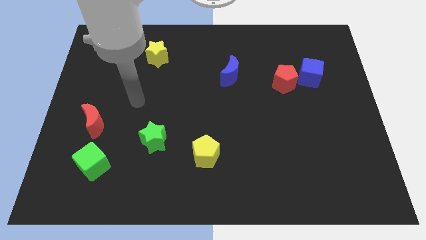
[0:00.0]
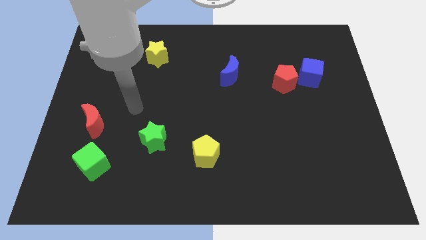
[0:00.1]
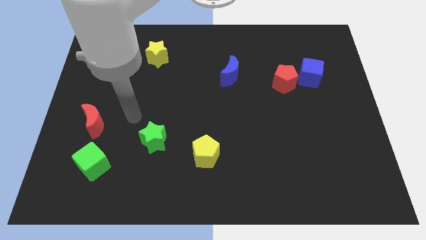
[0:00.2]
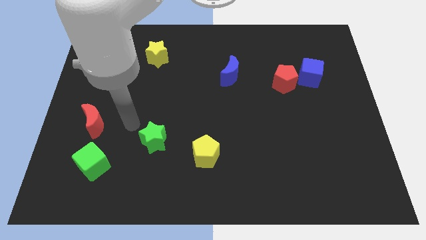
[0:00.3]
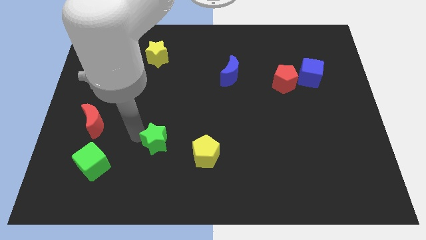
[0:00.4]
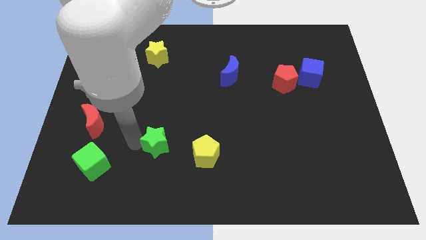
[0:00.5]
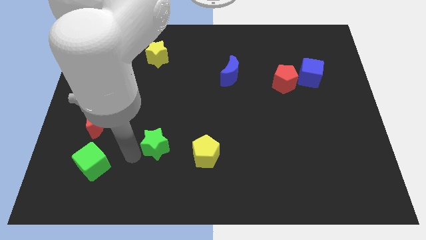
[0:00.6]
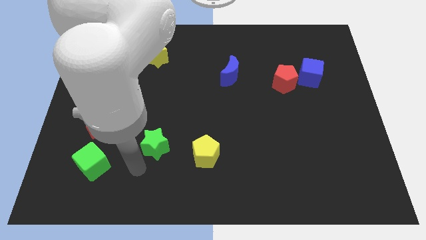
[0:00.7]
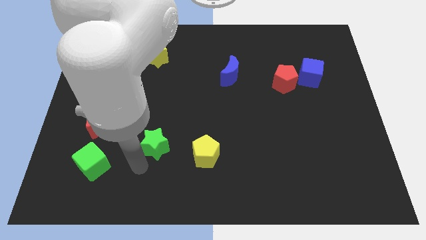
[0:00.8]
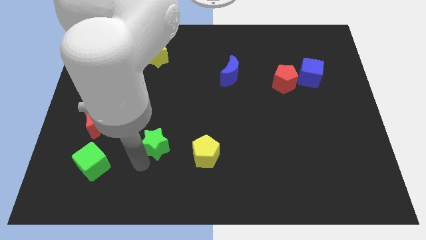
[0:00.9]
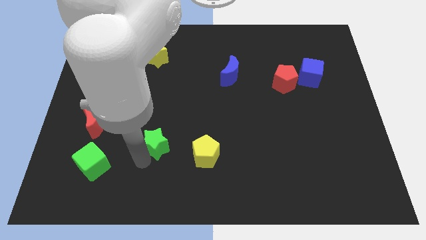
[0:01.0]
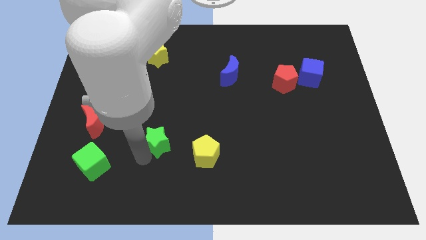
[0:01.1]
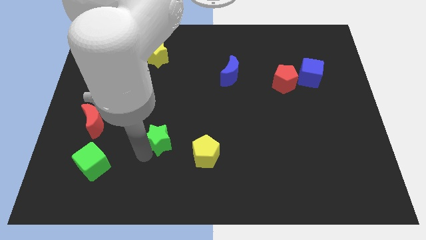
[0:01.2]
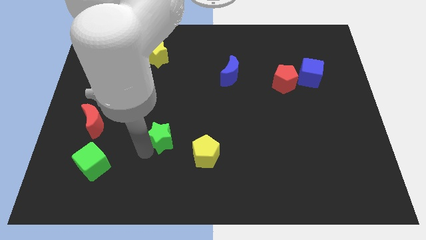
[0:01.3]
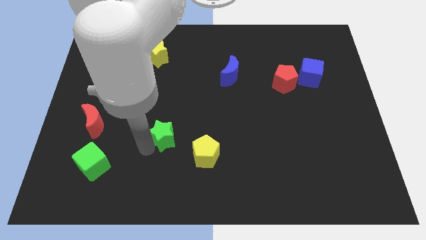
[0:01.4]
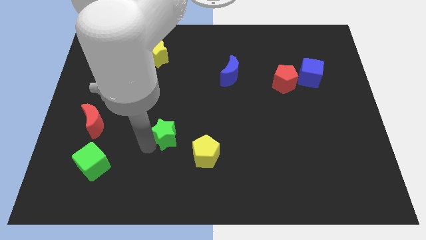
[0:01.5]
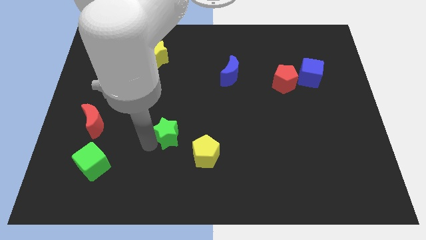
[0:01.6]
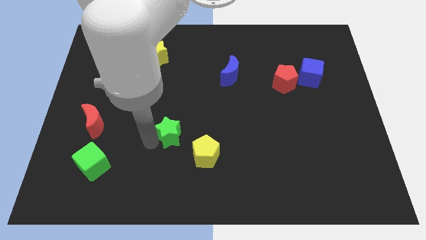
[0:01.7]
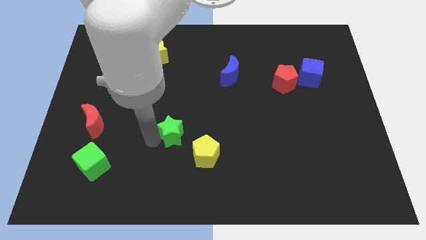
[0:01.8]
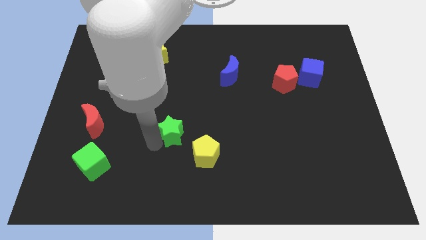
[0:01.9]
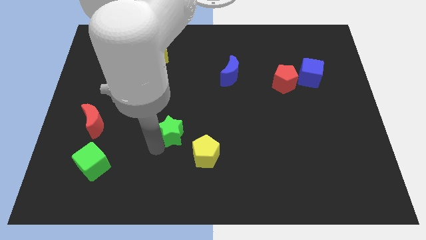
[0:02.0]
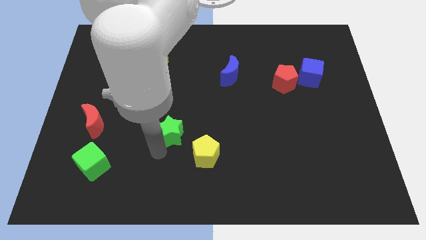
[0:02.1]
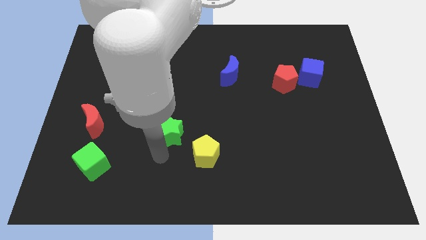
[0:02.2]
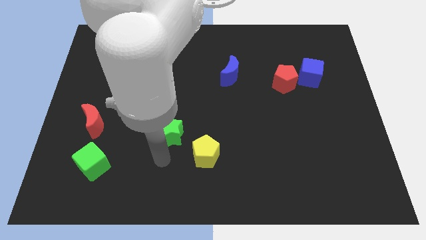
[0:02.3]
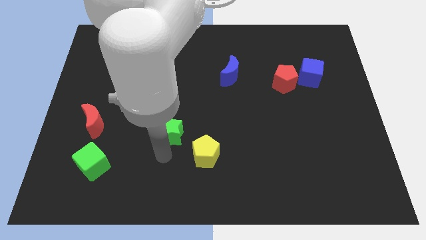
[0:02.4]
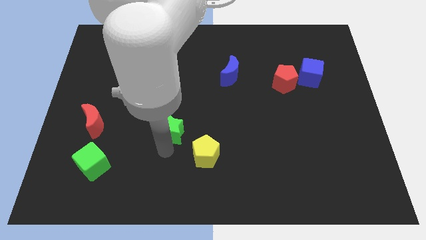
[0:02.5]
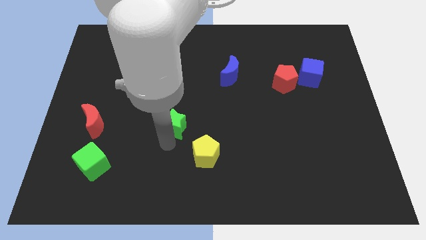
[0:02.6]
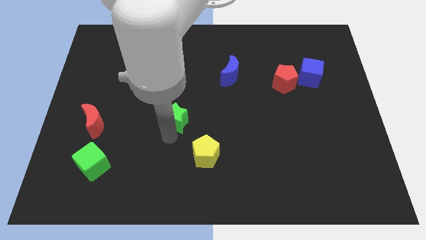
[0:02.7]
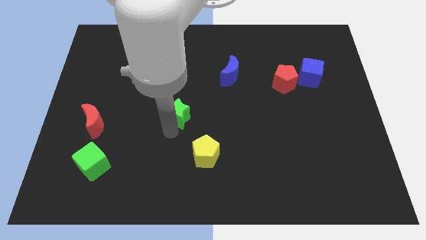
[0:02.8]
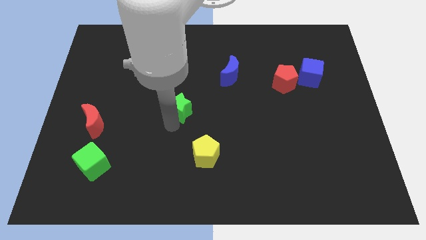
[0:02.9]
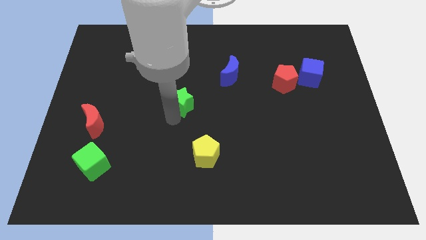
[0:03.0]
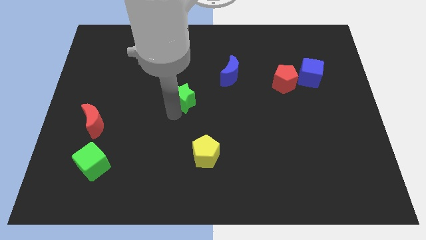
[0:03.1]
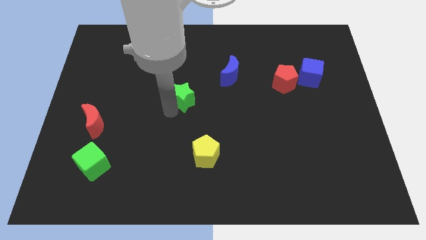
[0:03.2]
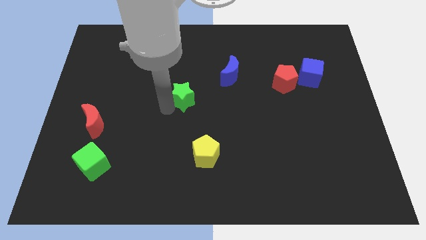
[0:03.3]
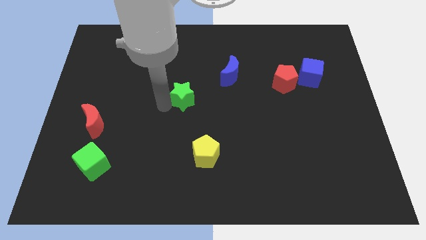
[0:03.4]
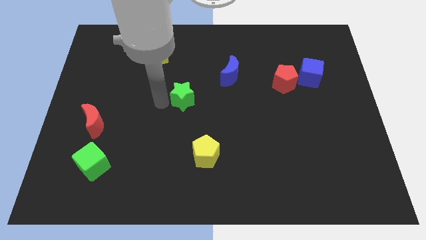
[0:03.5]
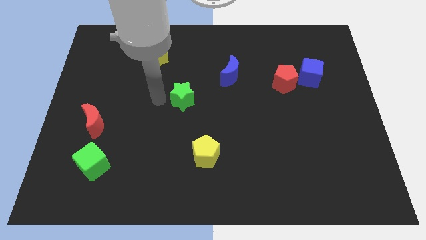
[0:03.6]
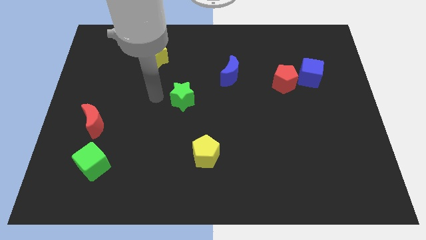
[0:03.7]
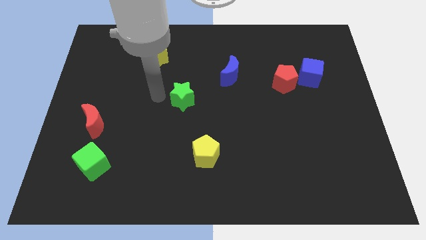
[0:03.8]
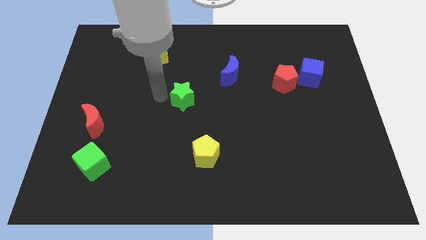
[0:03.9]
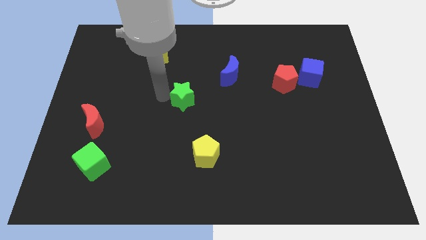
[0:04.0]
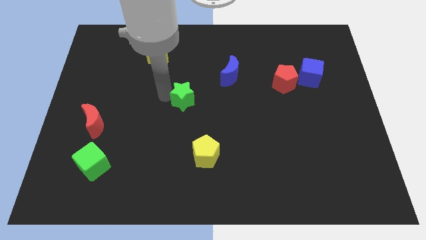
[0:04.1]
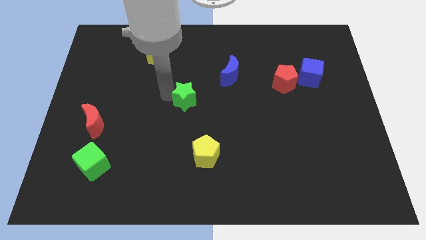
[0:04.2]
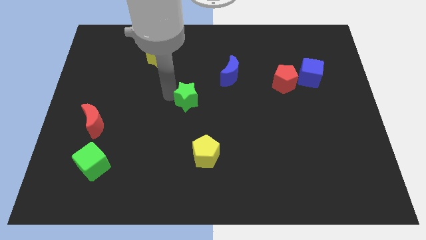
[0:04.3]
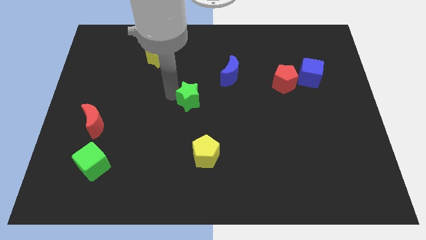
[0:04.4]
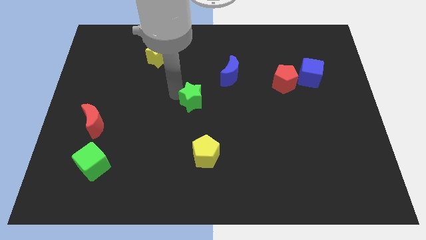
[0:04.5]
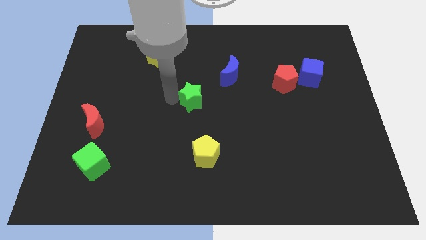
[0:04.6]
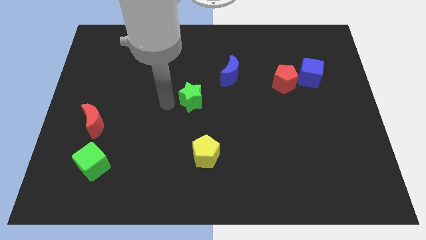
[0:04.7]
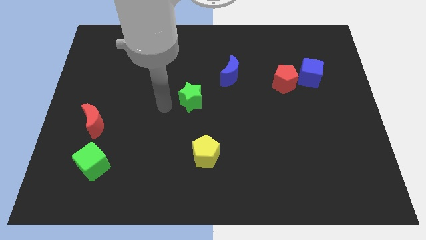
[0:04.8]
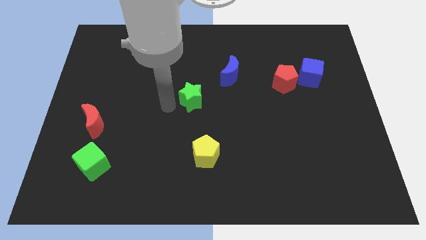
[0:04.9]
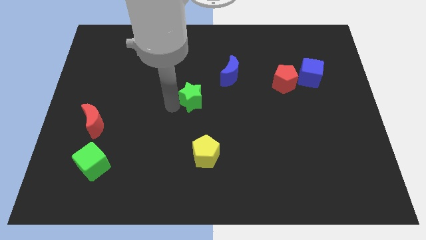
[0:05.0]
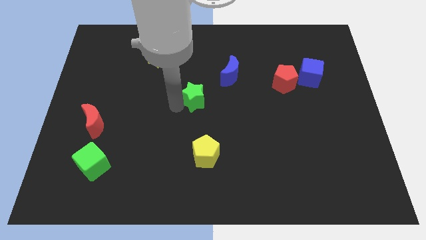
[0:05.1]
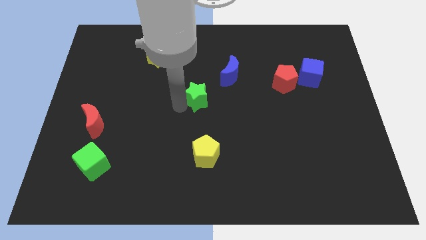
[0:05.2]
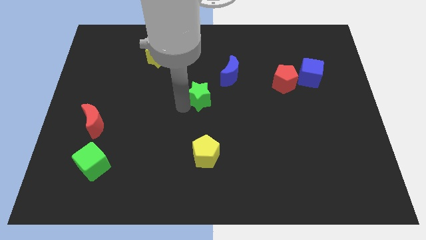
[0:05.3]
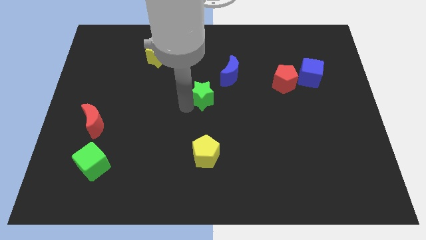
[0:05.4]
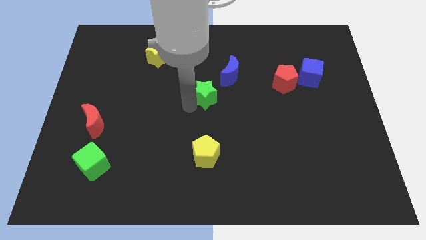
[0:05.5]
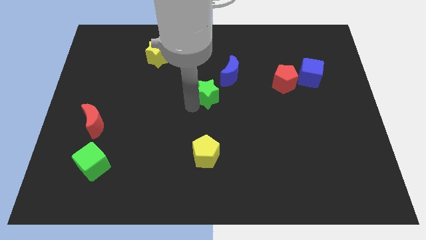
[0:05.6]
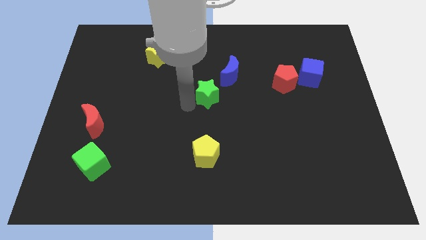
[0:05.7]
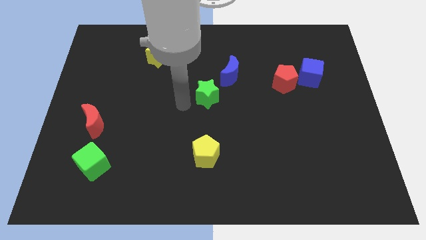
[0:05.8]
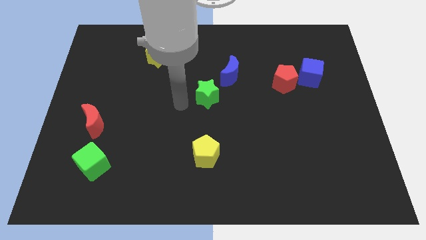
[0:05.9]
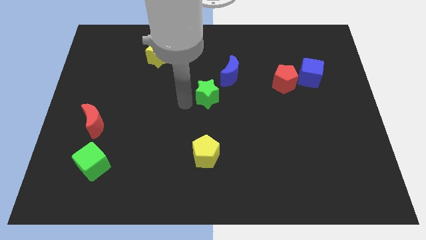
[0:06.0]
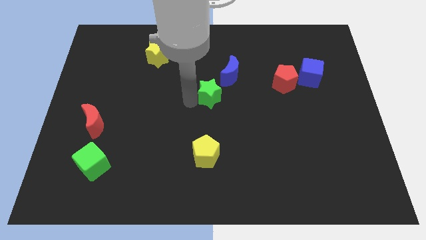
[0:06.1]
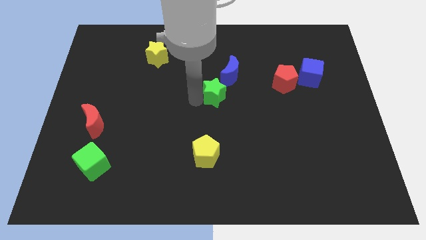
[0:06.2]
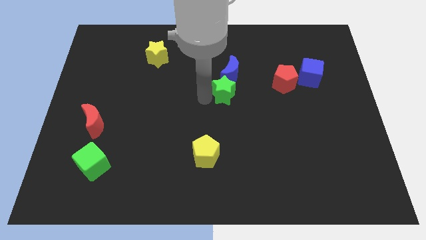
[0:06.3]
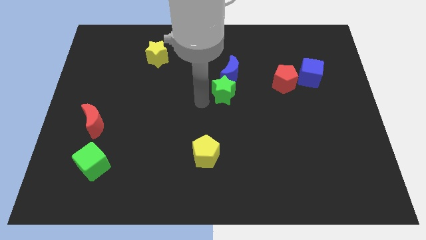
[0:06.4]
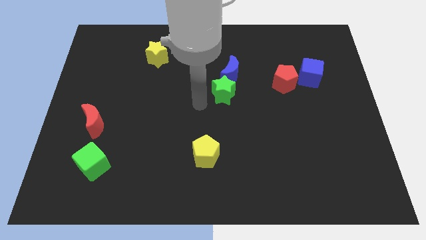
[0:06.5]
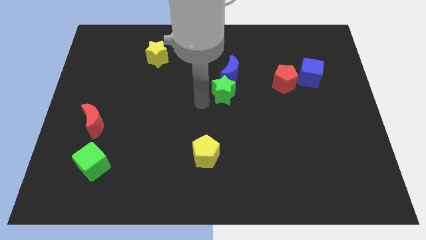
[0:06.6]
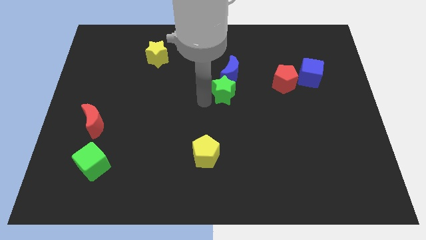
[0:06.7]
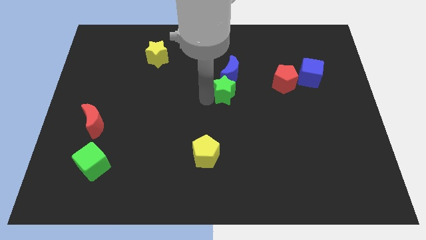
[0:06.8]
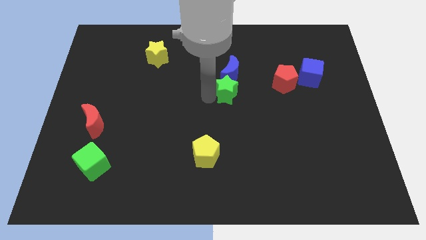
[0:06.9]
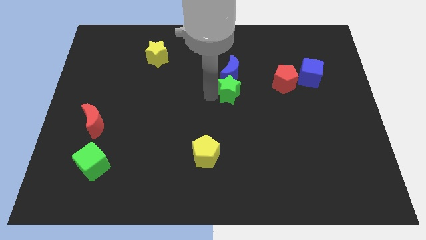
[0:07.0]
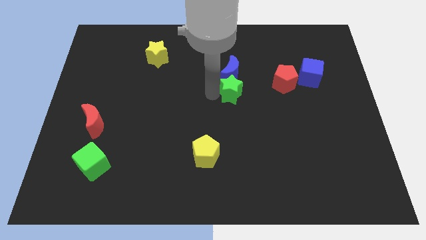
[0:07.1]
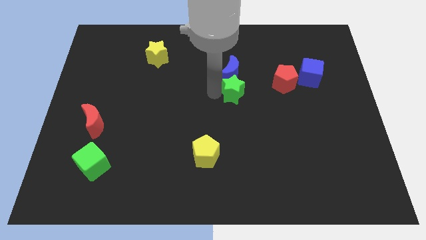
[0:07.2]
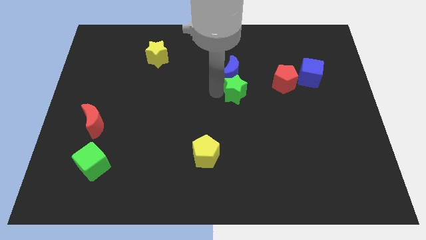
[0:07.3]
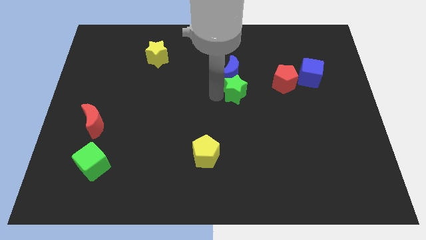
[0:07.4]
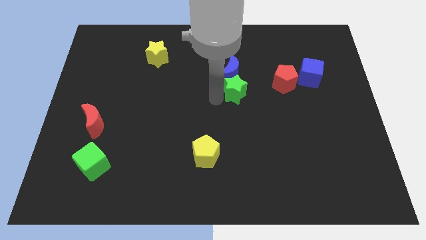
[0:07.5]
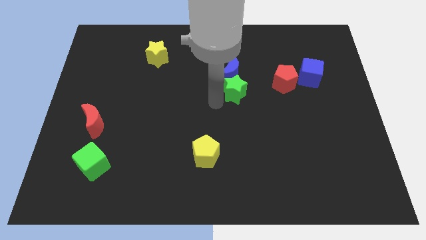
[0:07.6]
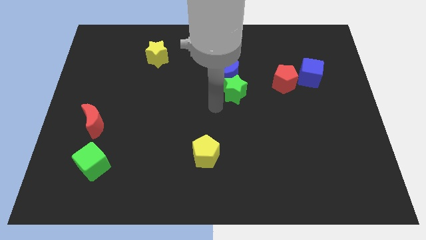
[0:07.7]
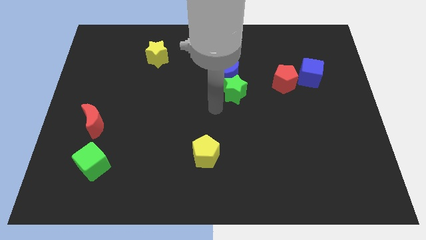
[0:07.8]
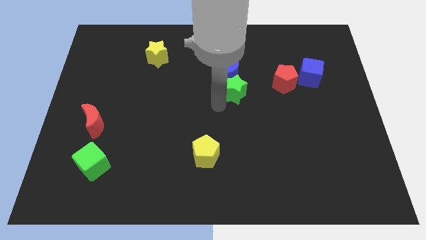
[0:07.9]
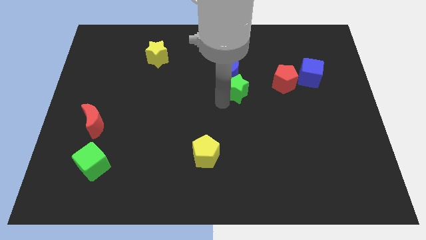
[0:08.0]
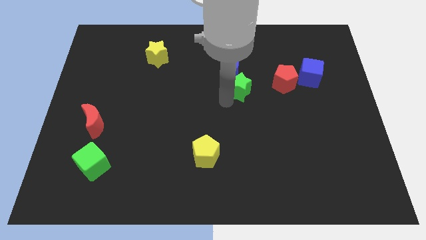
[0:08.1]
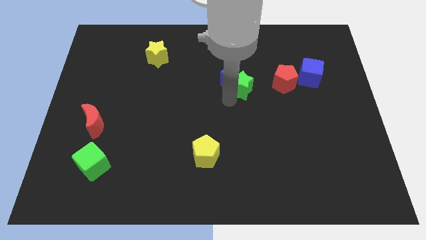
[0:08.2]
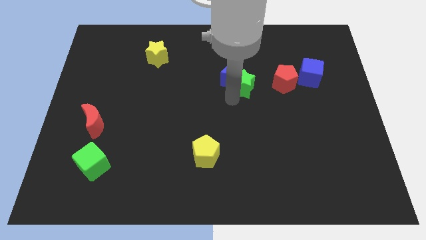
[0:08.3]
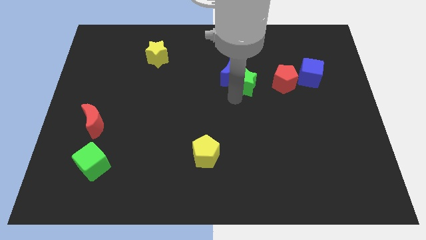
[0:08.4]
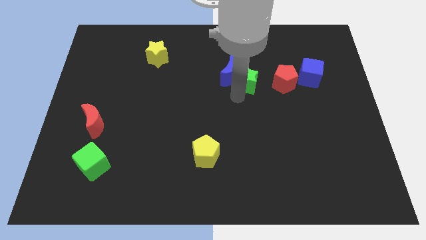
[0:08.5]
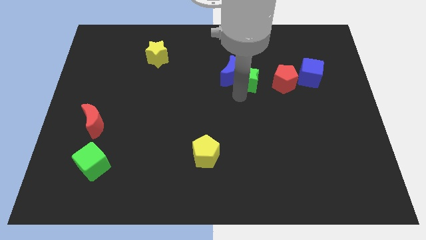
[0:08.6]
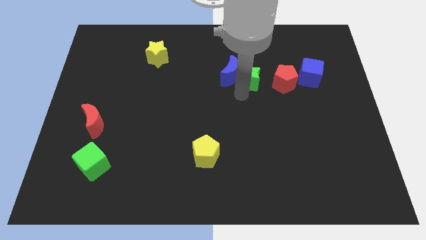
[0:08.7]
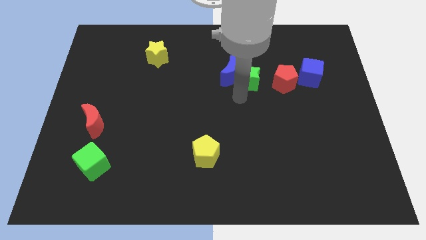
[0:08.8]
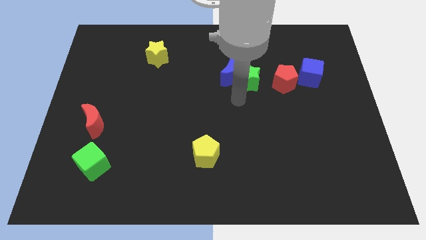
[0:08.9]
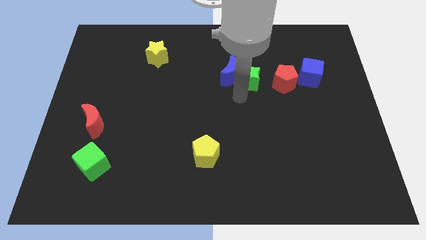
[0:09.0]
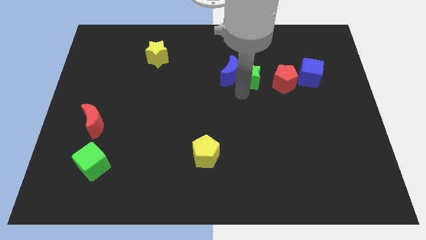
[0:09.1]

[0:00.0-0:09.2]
push the green star diagonally up and to the right of the blue moon
